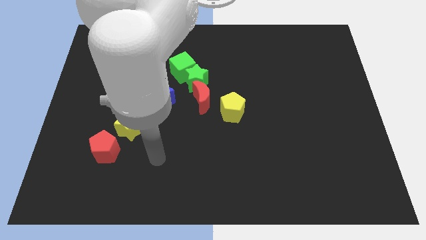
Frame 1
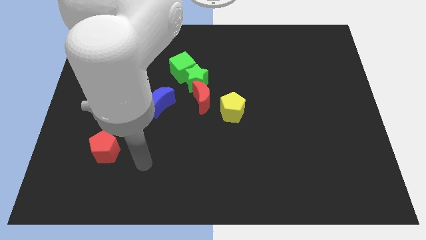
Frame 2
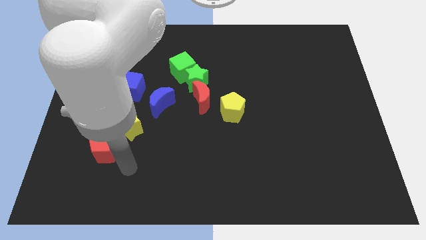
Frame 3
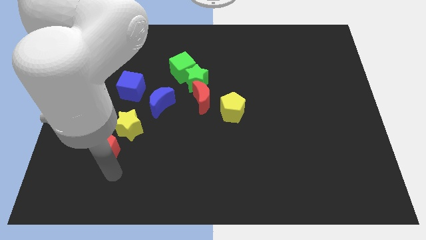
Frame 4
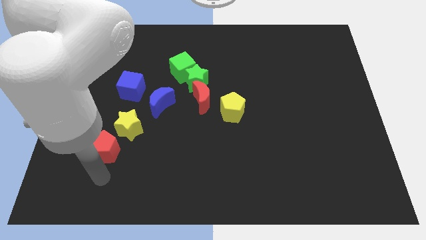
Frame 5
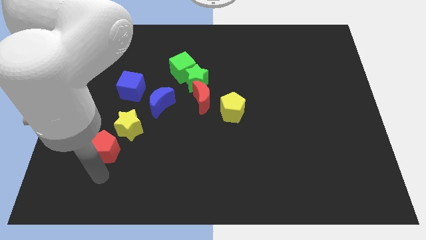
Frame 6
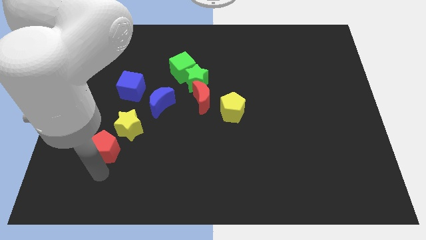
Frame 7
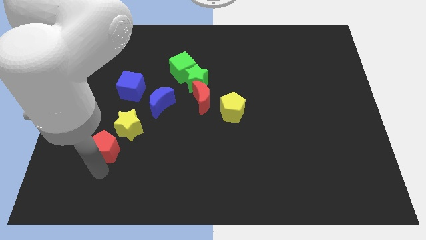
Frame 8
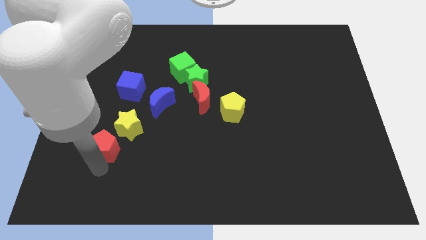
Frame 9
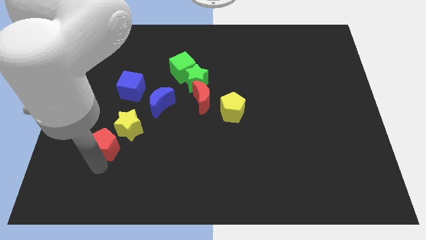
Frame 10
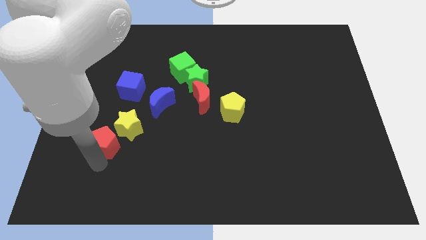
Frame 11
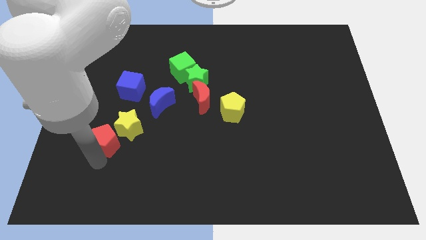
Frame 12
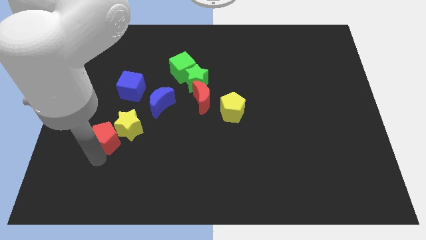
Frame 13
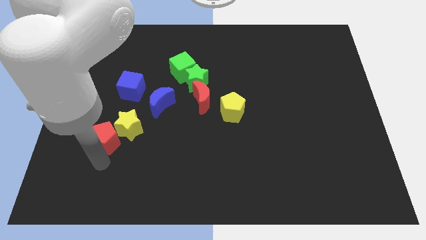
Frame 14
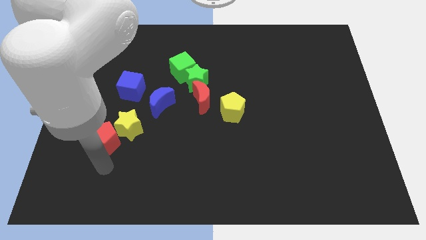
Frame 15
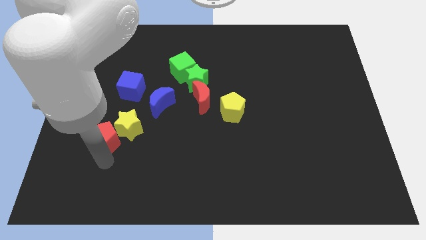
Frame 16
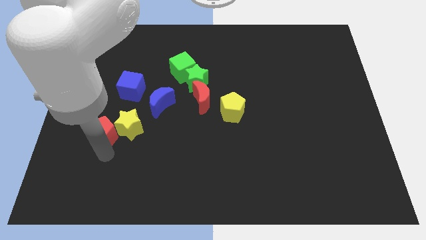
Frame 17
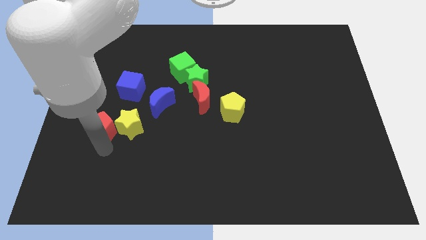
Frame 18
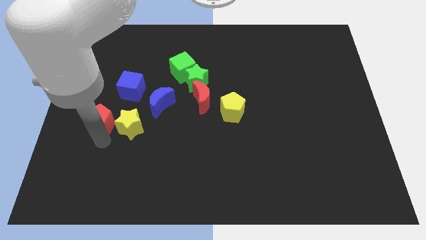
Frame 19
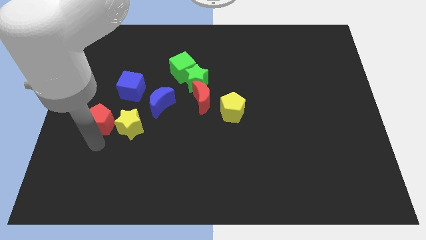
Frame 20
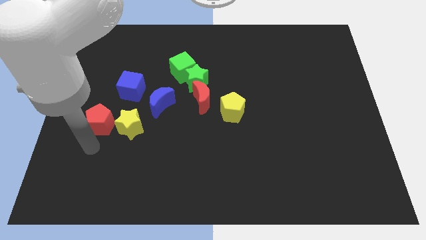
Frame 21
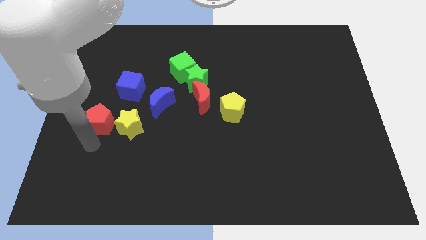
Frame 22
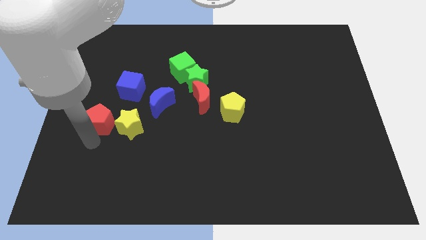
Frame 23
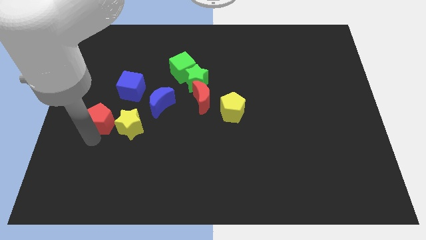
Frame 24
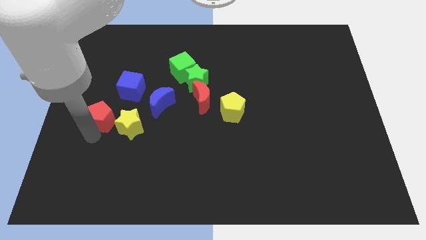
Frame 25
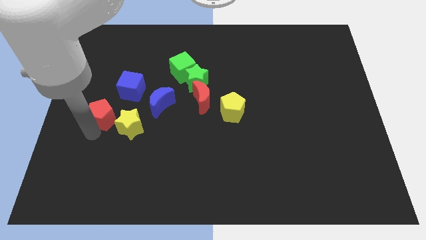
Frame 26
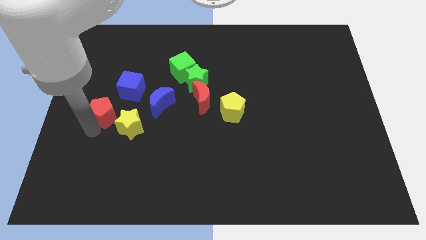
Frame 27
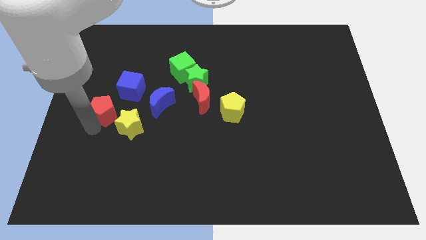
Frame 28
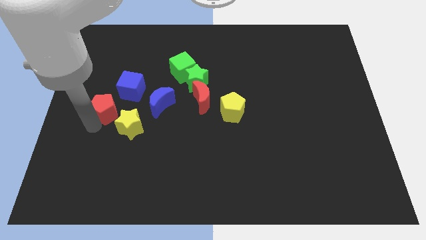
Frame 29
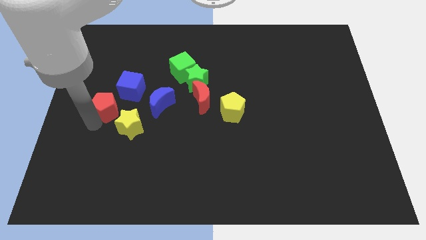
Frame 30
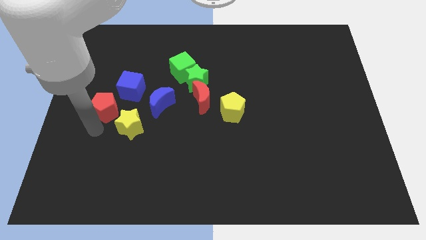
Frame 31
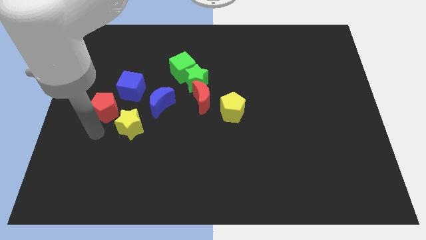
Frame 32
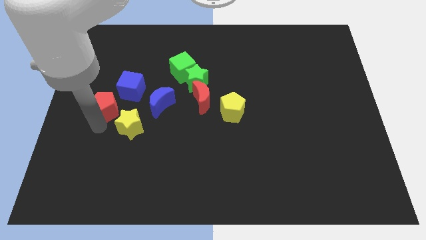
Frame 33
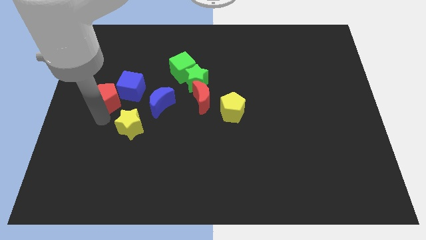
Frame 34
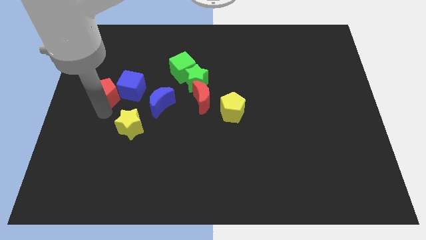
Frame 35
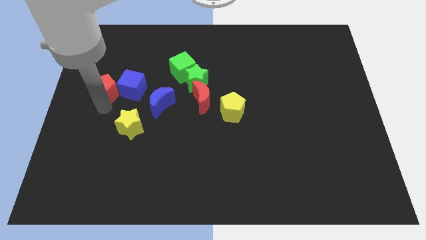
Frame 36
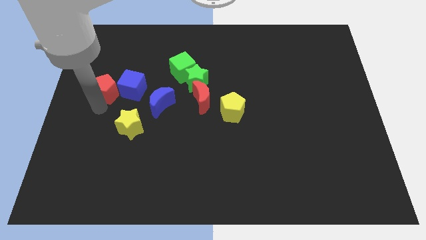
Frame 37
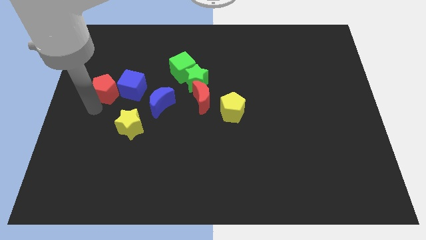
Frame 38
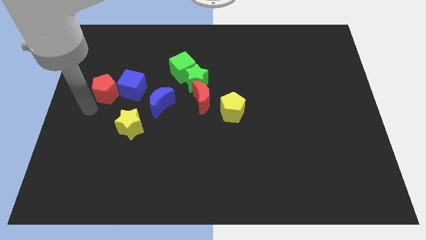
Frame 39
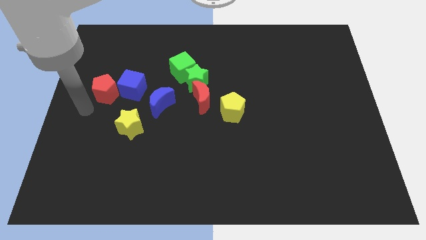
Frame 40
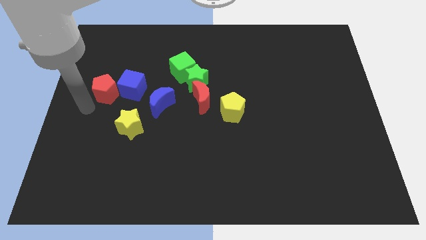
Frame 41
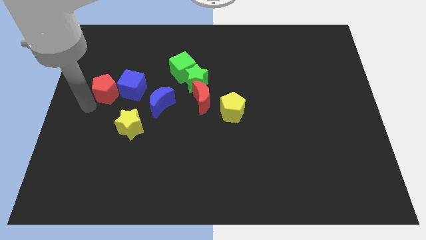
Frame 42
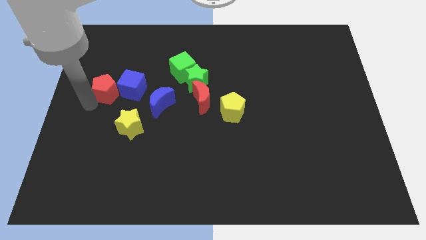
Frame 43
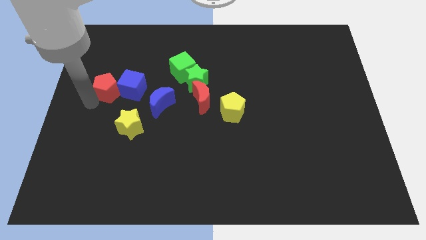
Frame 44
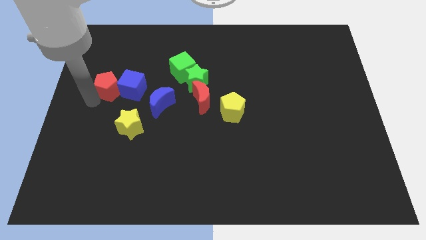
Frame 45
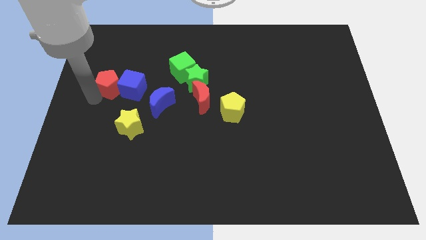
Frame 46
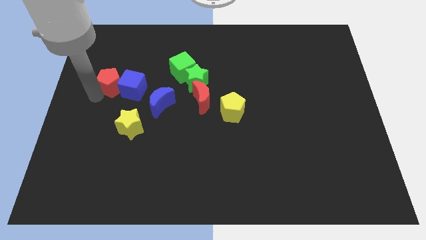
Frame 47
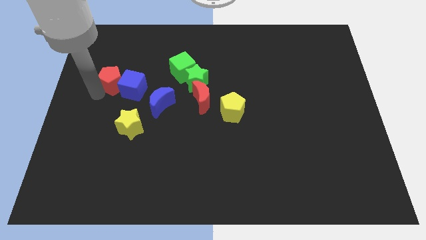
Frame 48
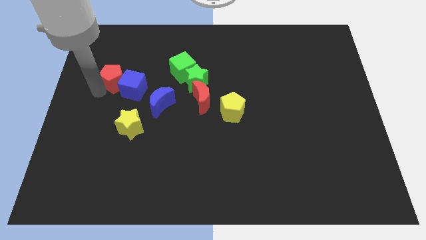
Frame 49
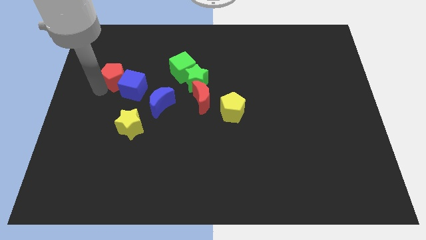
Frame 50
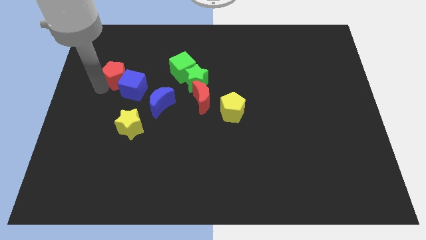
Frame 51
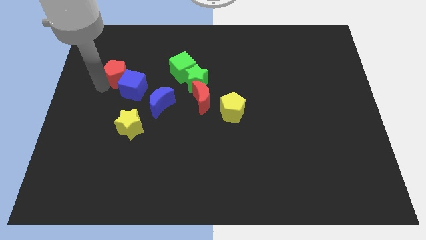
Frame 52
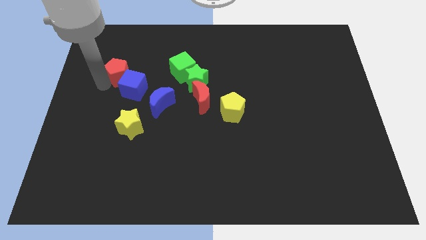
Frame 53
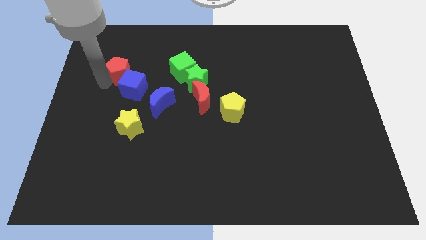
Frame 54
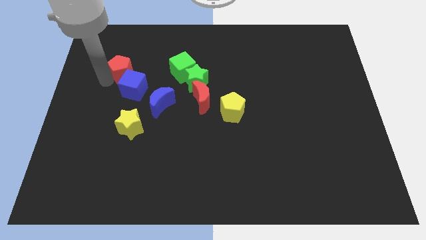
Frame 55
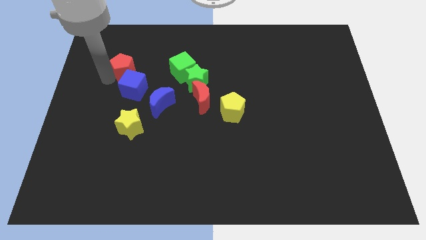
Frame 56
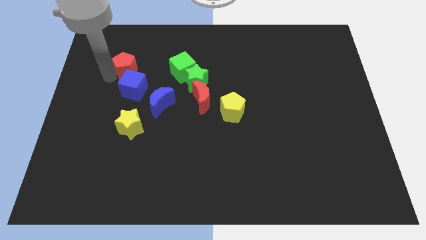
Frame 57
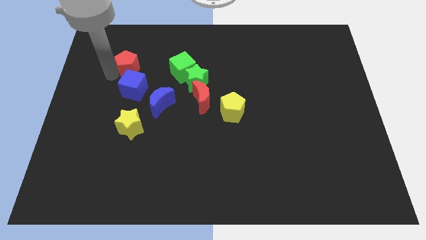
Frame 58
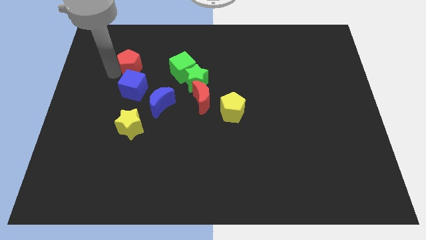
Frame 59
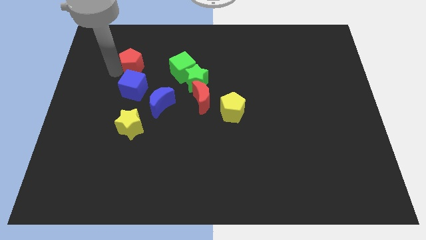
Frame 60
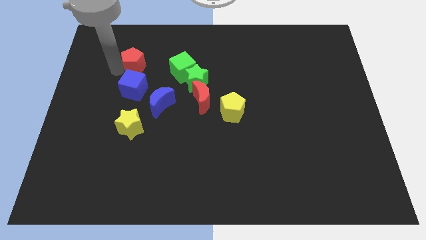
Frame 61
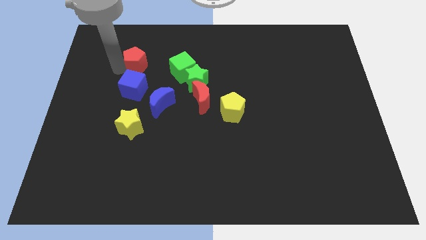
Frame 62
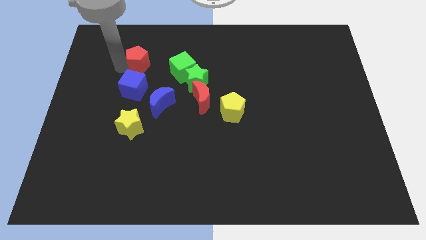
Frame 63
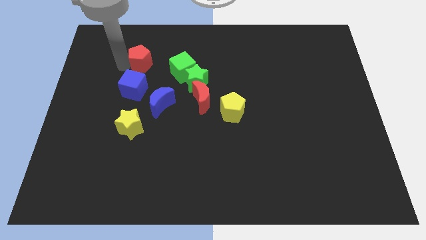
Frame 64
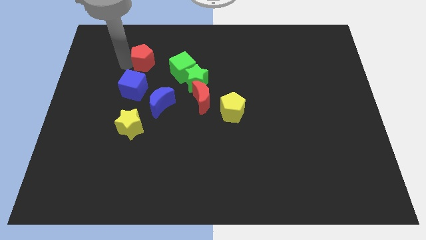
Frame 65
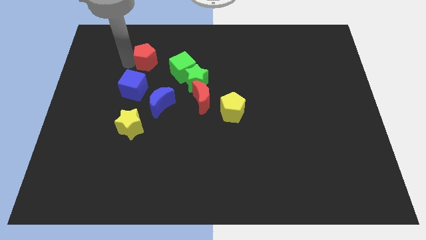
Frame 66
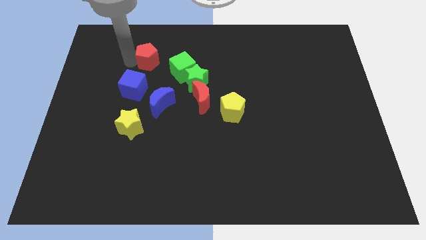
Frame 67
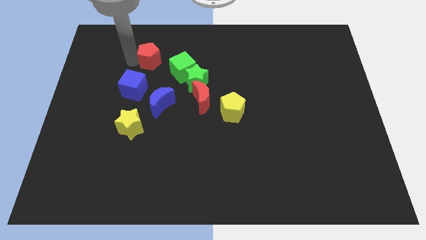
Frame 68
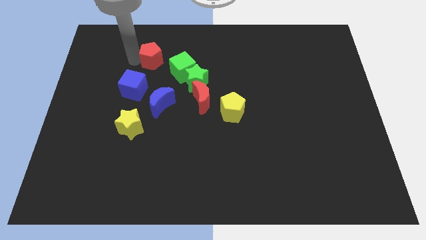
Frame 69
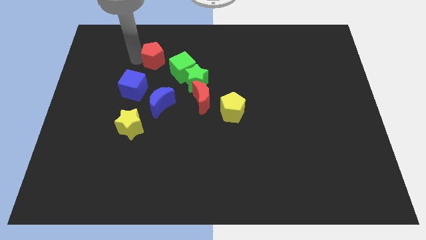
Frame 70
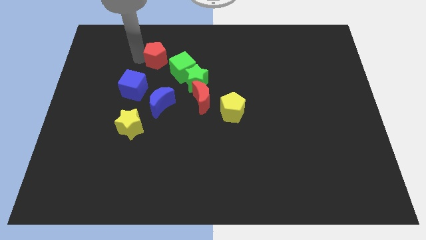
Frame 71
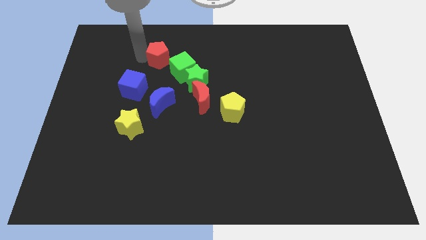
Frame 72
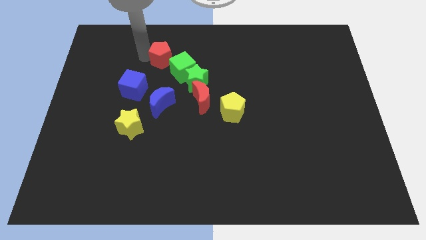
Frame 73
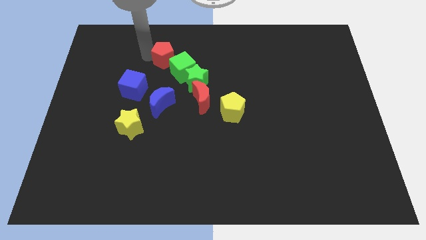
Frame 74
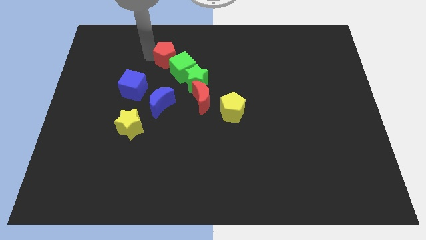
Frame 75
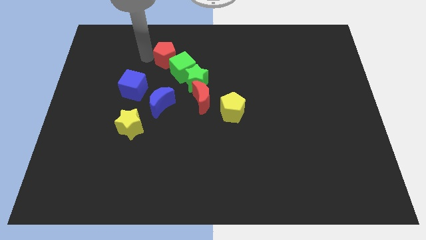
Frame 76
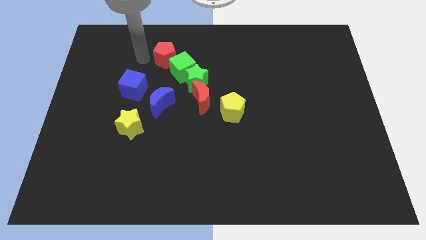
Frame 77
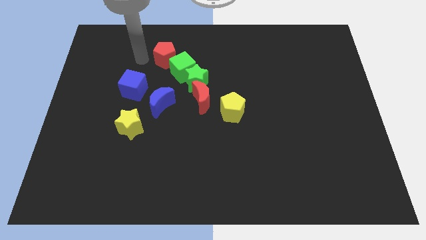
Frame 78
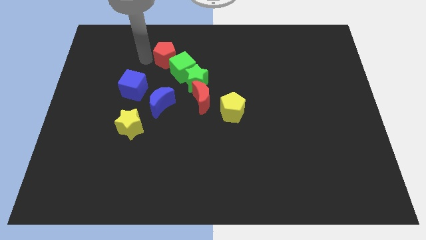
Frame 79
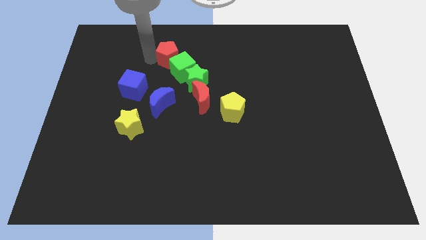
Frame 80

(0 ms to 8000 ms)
move the red pentagon up and then to the right

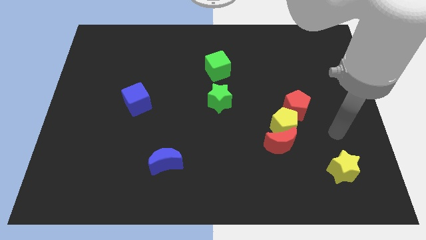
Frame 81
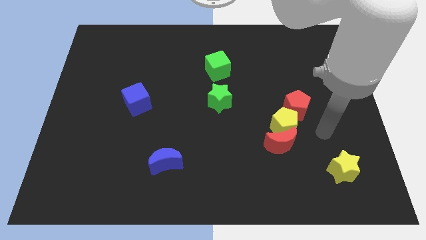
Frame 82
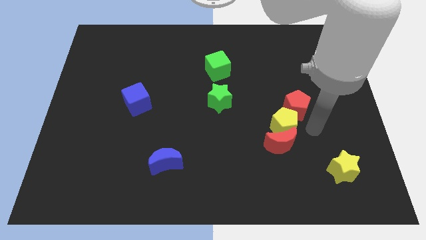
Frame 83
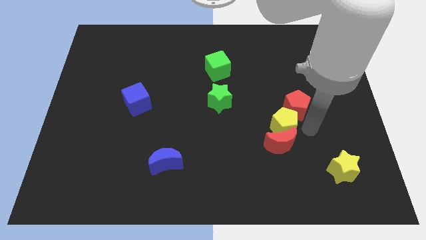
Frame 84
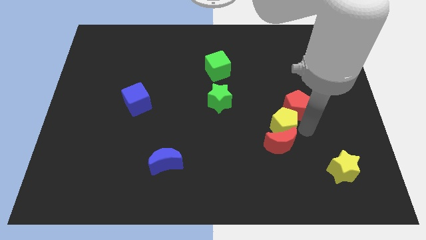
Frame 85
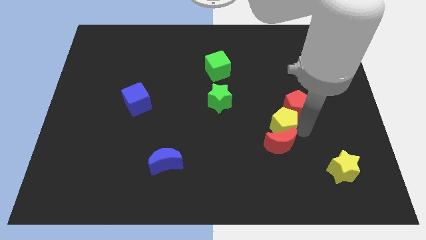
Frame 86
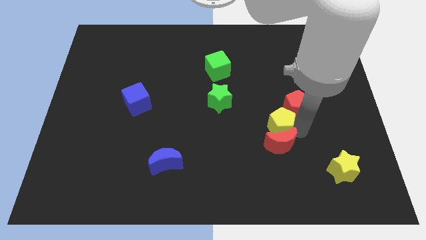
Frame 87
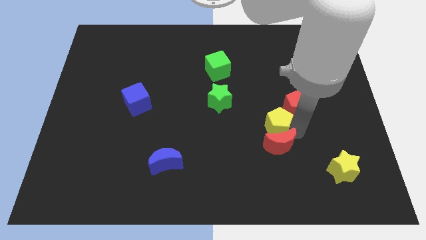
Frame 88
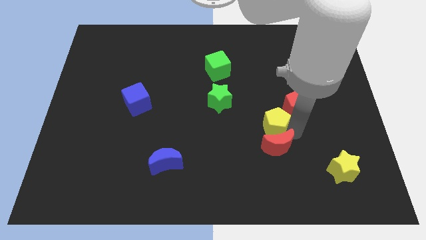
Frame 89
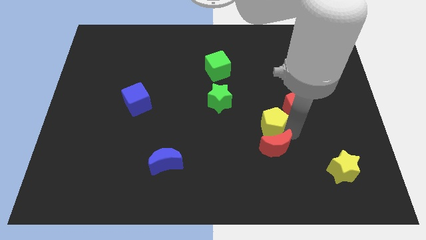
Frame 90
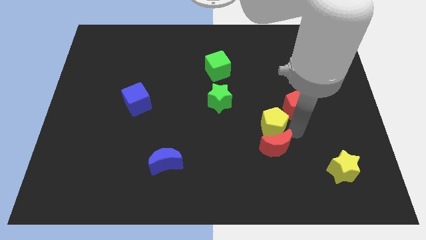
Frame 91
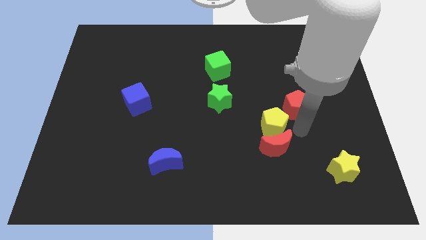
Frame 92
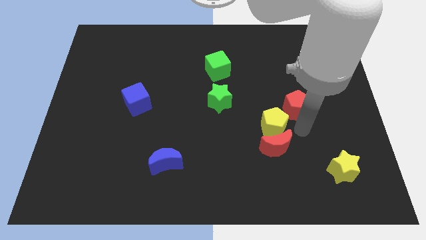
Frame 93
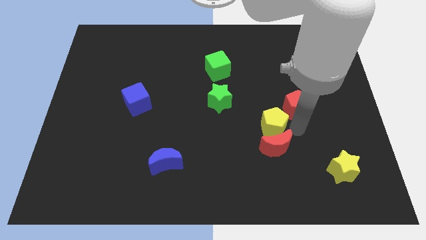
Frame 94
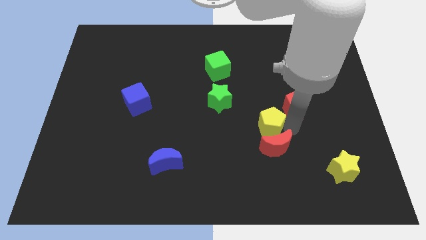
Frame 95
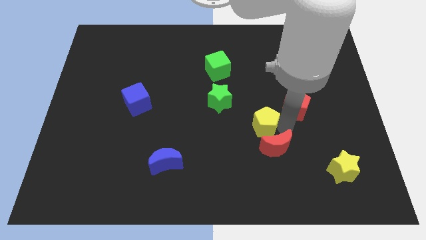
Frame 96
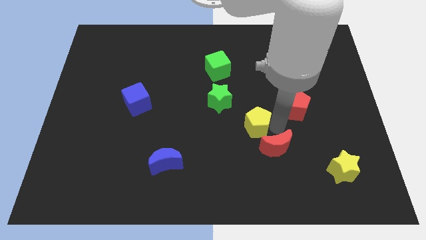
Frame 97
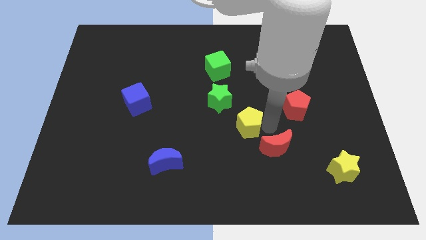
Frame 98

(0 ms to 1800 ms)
slide the yellow pentagon a bit to the left
